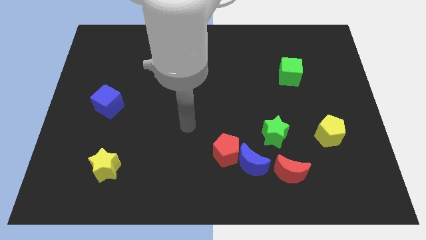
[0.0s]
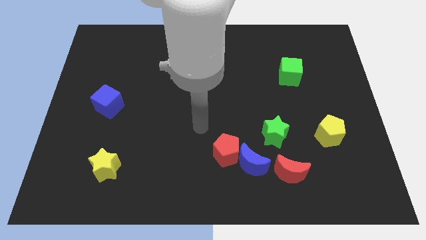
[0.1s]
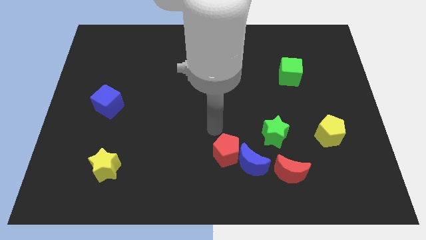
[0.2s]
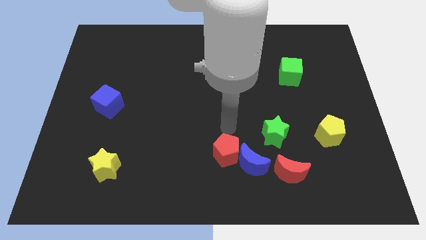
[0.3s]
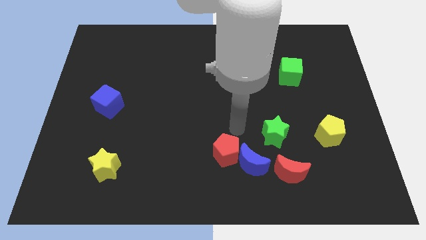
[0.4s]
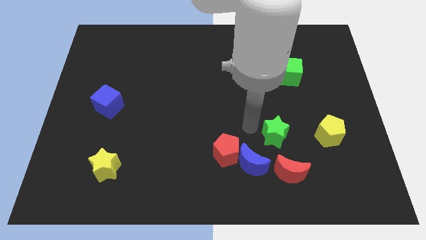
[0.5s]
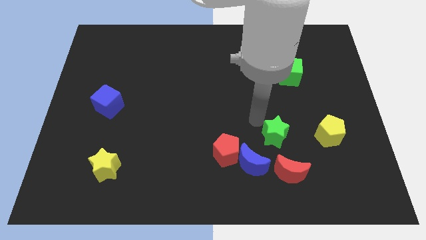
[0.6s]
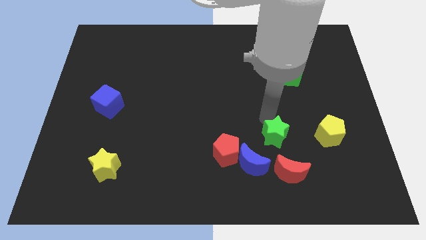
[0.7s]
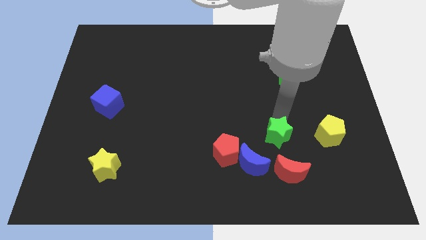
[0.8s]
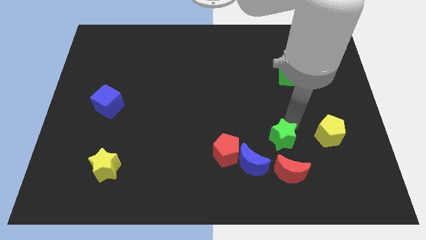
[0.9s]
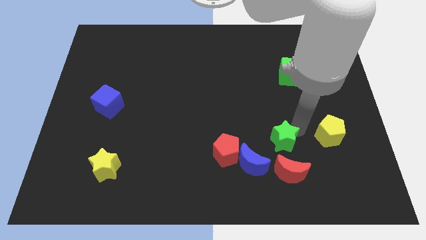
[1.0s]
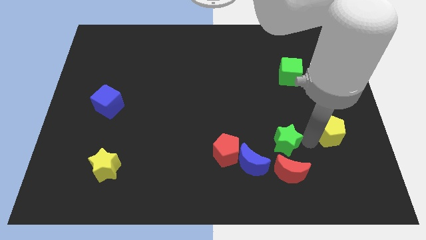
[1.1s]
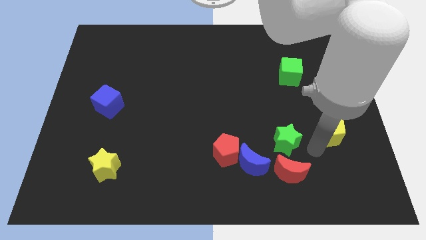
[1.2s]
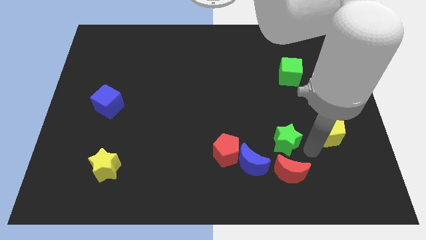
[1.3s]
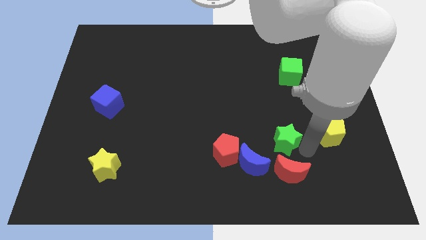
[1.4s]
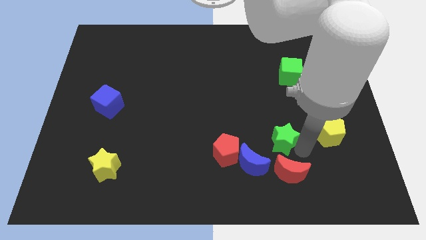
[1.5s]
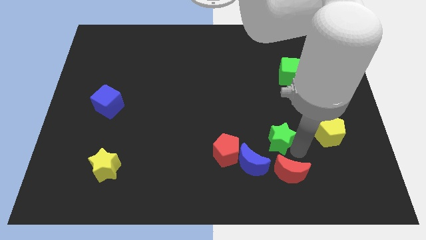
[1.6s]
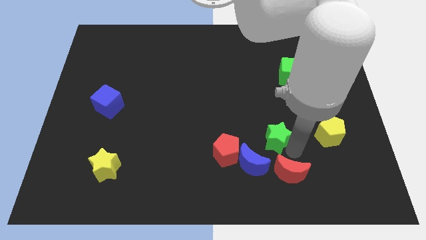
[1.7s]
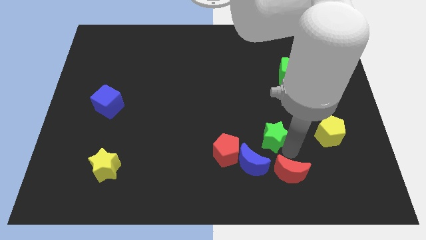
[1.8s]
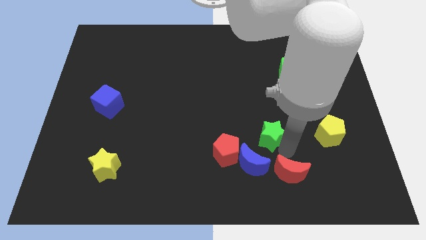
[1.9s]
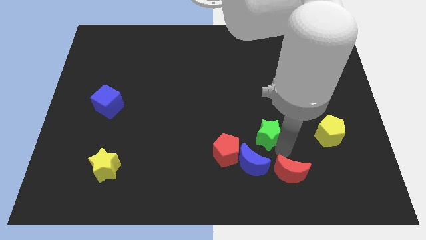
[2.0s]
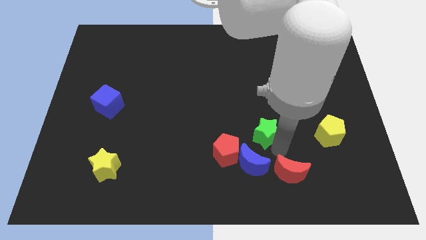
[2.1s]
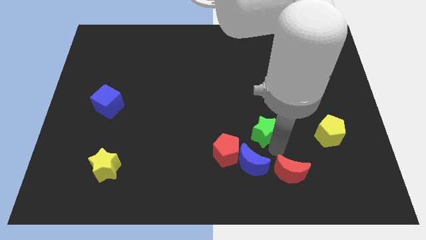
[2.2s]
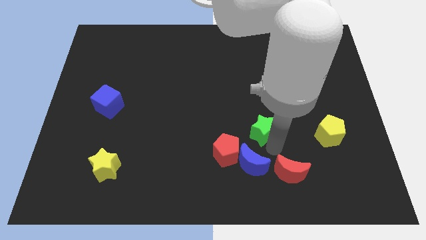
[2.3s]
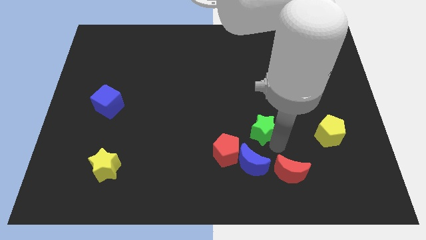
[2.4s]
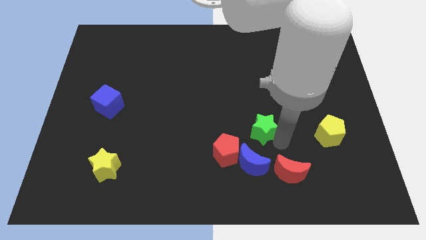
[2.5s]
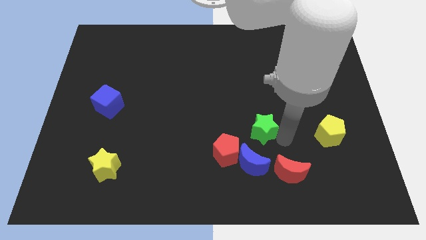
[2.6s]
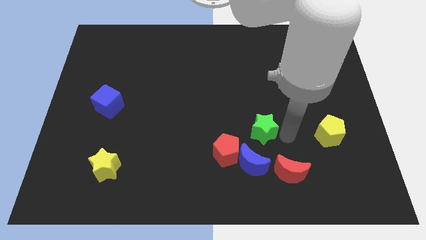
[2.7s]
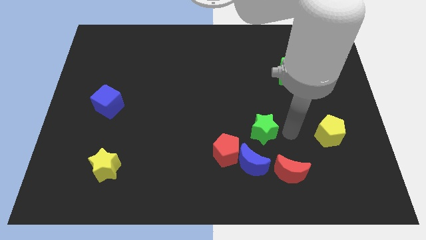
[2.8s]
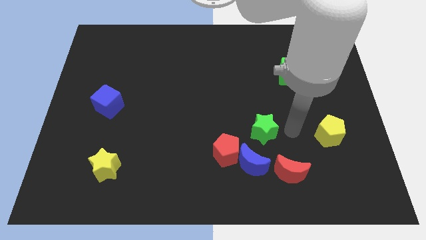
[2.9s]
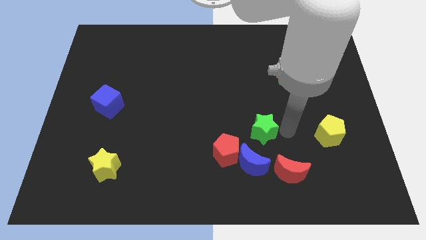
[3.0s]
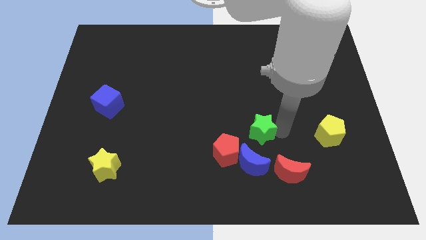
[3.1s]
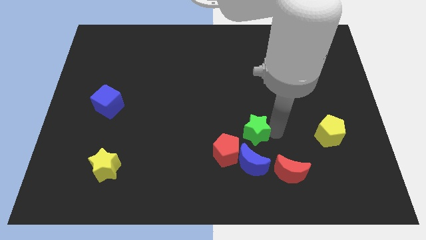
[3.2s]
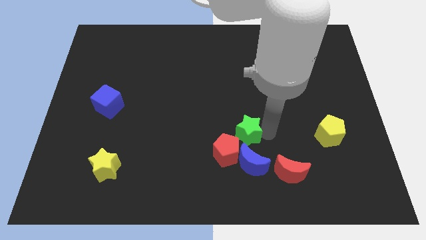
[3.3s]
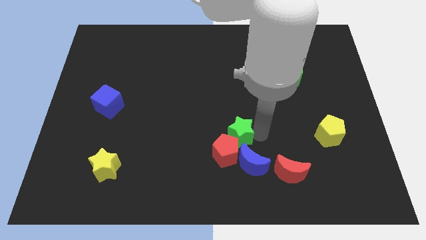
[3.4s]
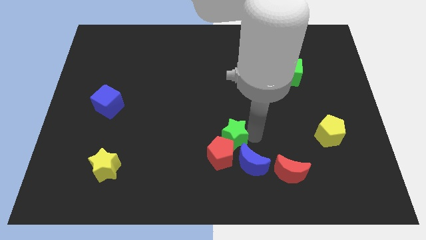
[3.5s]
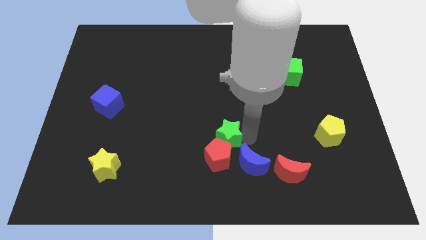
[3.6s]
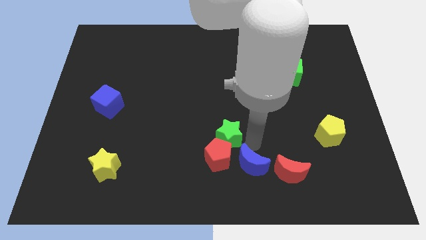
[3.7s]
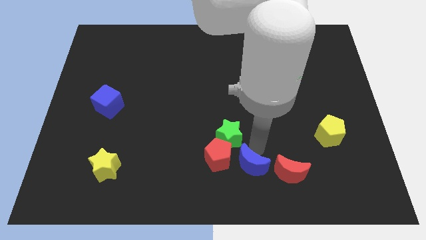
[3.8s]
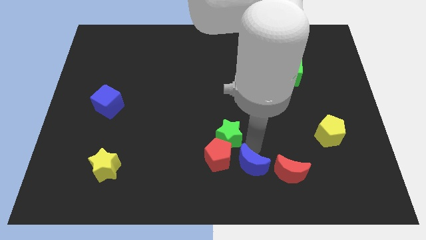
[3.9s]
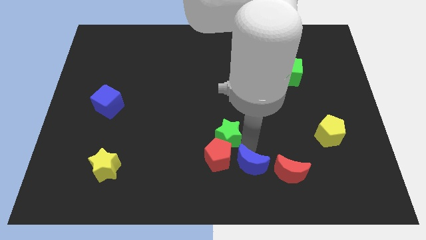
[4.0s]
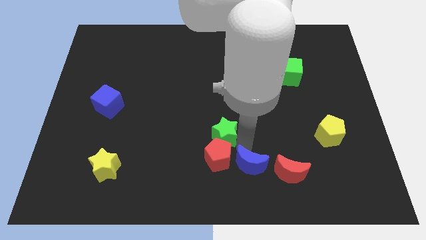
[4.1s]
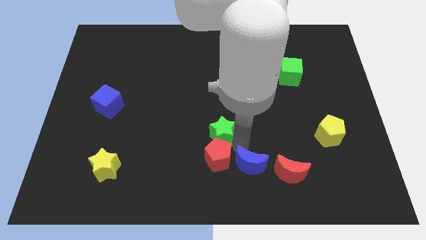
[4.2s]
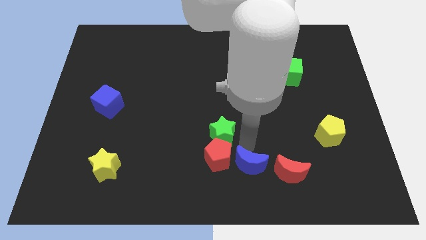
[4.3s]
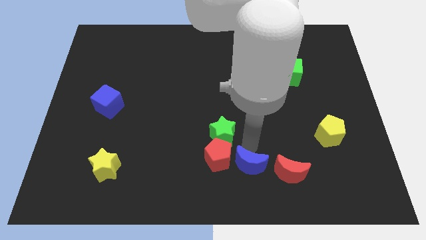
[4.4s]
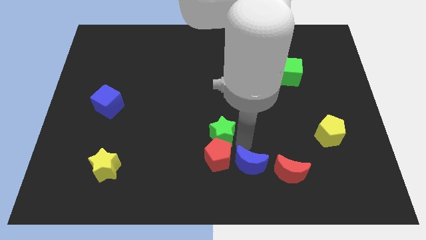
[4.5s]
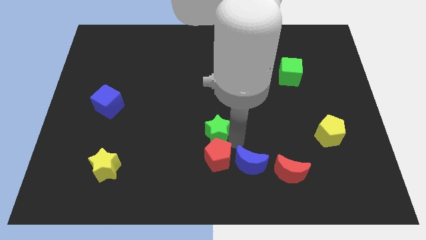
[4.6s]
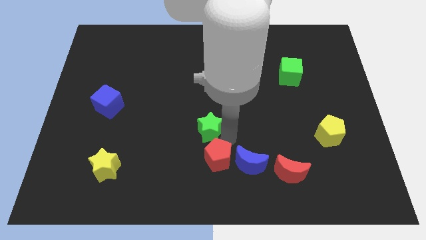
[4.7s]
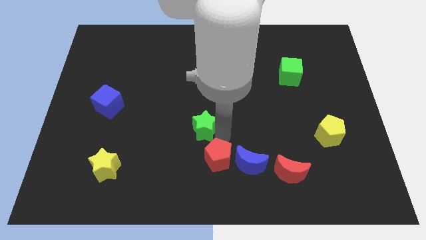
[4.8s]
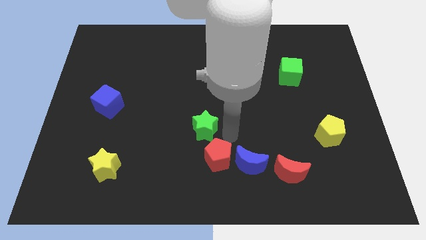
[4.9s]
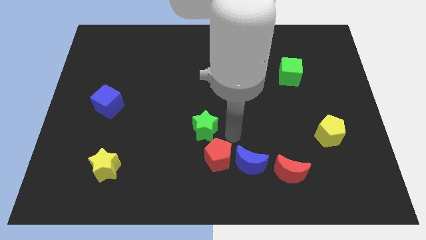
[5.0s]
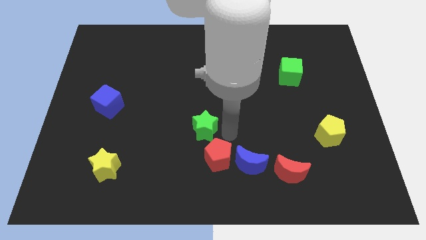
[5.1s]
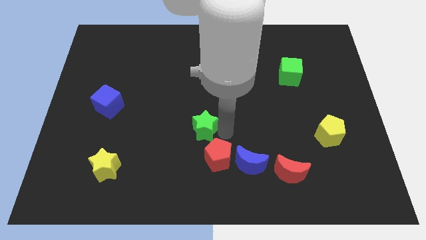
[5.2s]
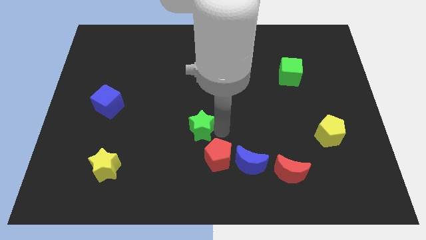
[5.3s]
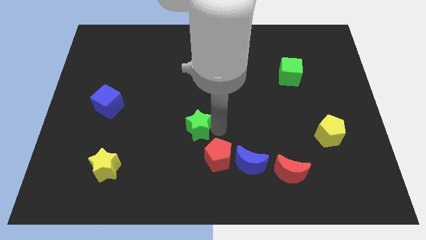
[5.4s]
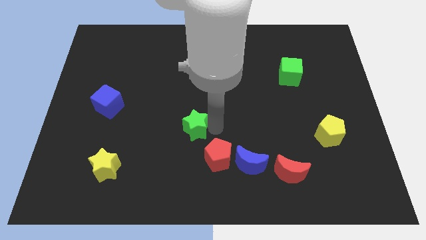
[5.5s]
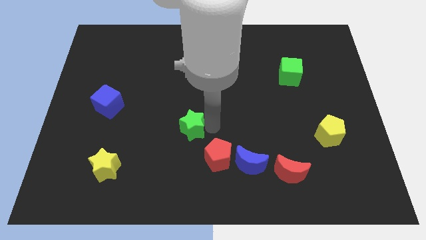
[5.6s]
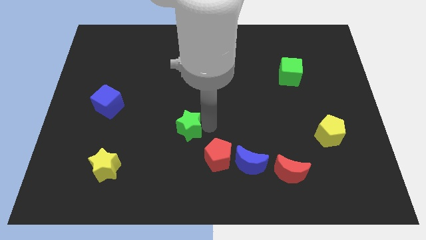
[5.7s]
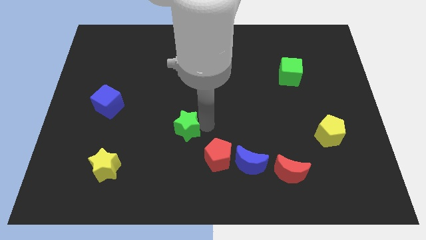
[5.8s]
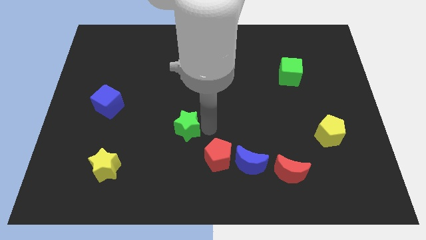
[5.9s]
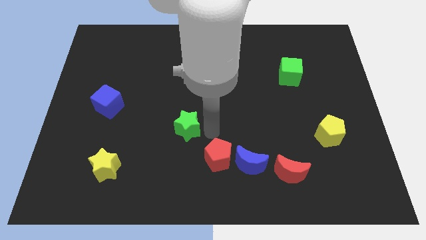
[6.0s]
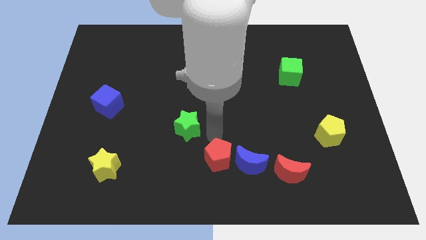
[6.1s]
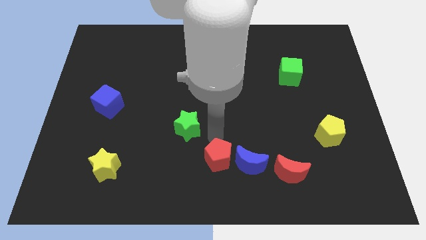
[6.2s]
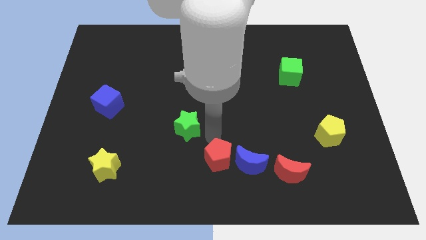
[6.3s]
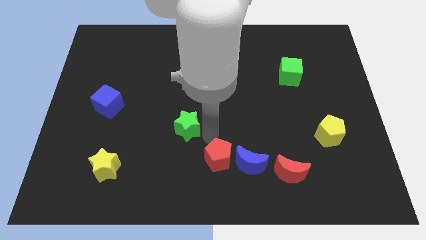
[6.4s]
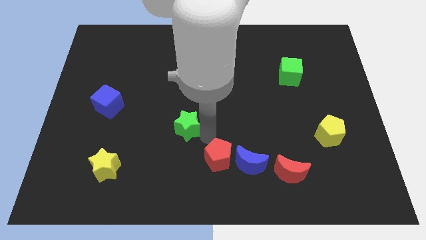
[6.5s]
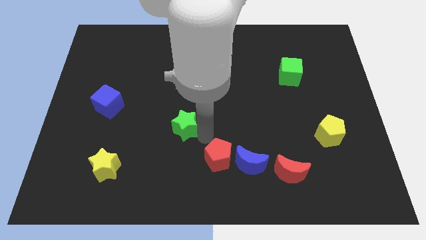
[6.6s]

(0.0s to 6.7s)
slide the green star left

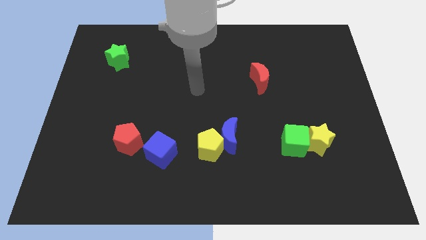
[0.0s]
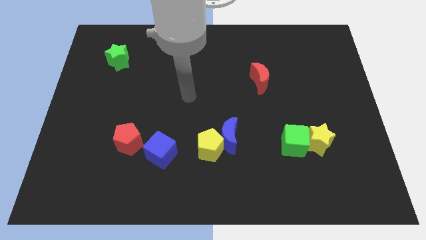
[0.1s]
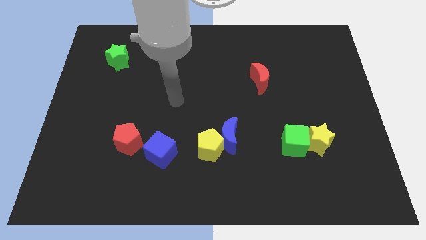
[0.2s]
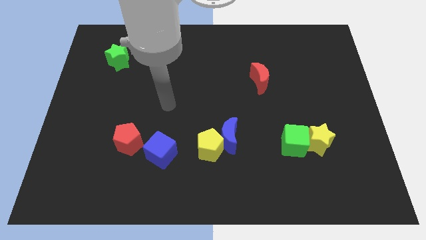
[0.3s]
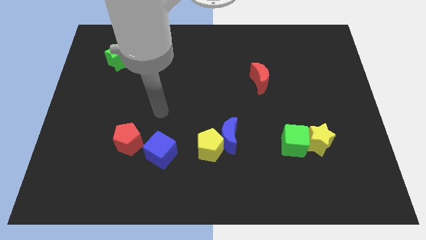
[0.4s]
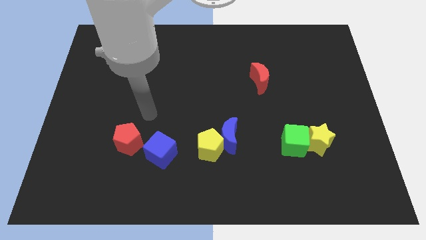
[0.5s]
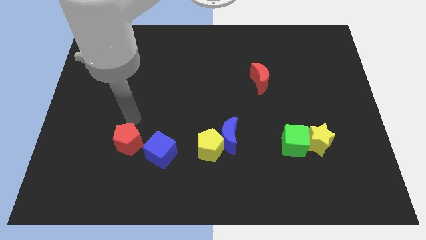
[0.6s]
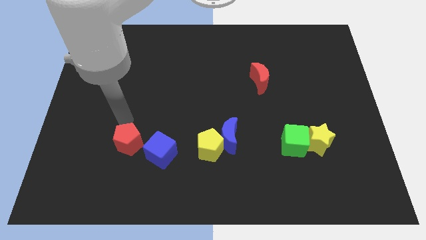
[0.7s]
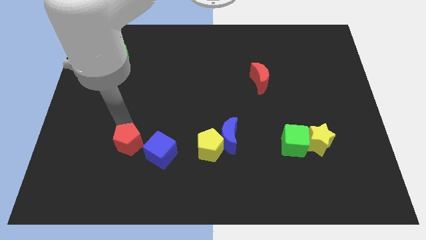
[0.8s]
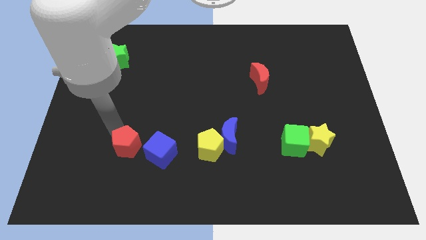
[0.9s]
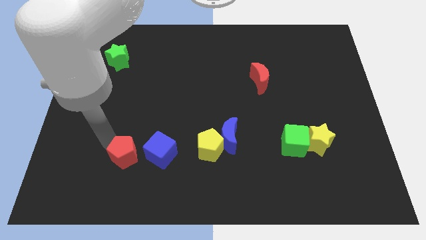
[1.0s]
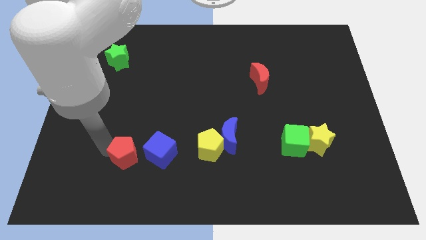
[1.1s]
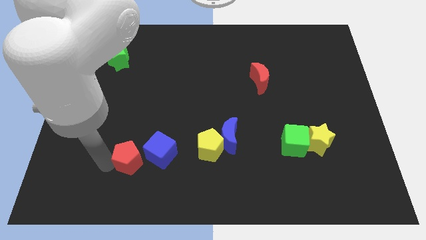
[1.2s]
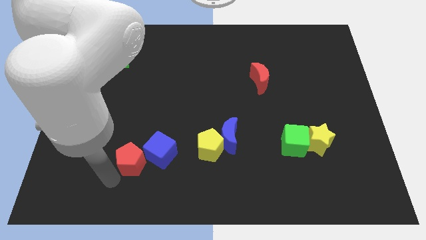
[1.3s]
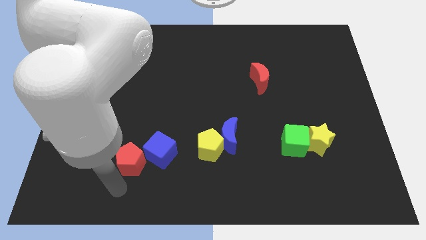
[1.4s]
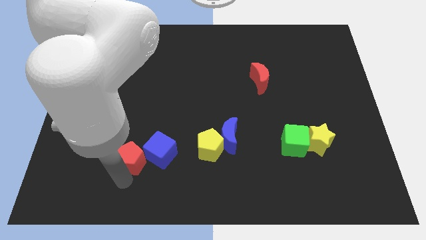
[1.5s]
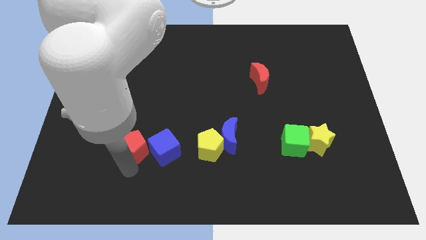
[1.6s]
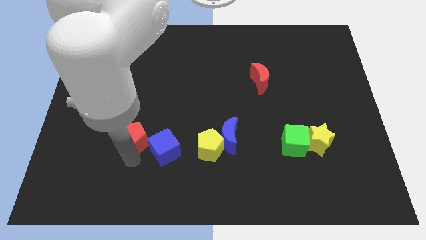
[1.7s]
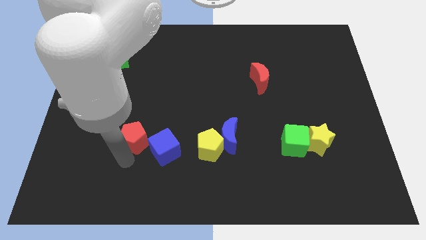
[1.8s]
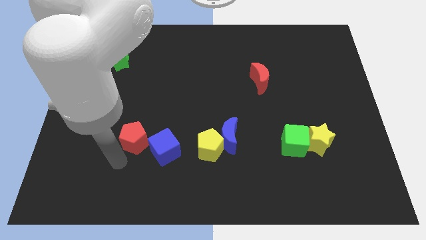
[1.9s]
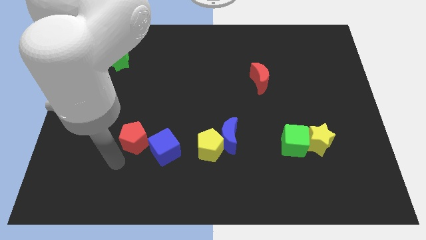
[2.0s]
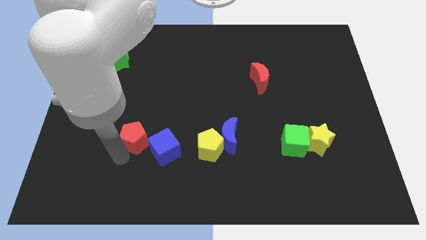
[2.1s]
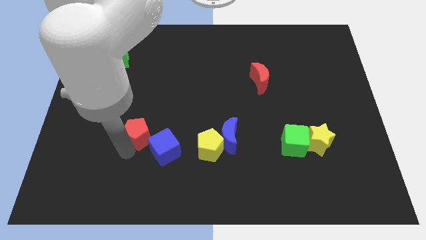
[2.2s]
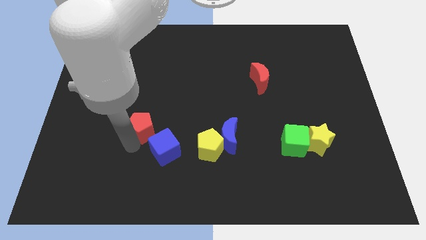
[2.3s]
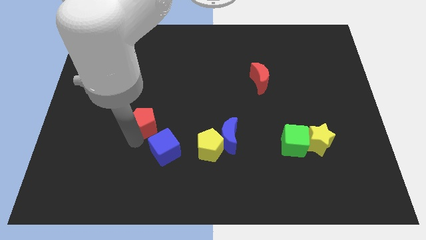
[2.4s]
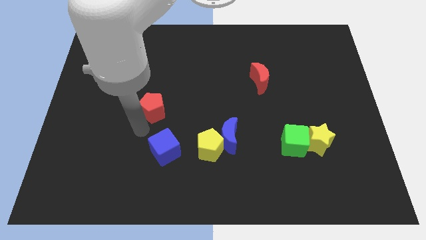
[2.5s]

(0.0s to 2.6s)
push the red pentagon a little bit diagonally upwards and to the right
